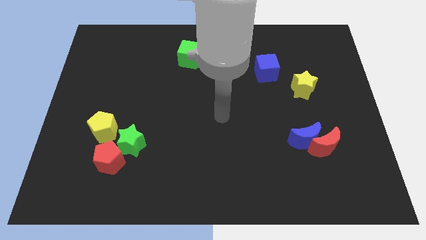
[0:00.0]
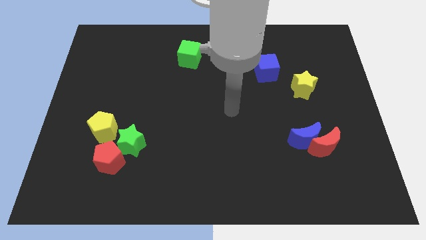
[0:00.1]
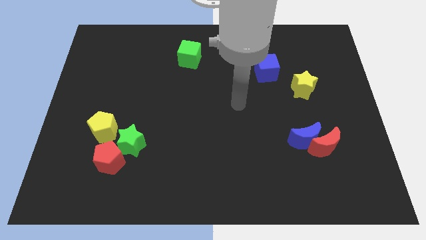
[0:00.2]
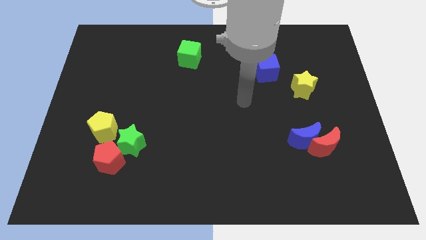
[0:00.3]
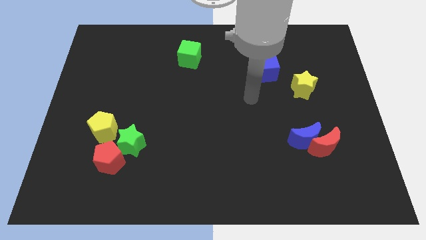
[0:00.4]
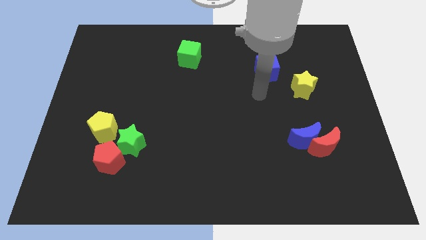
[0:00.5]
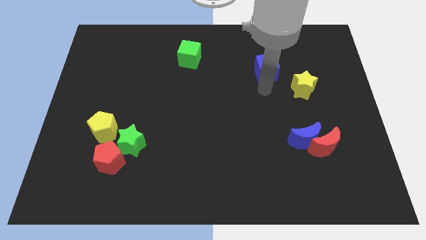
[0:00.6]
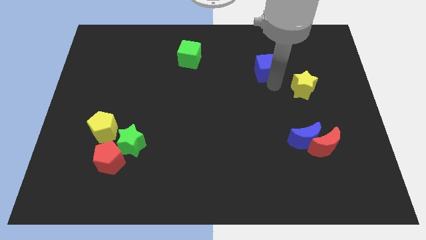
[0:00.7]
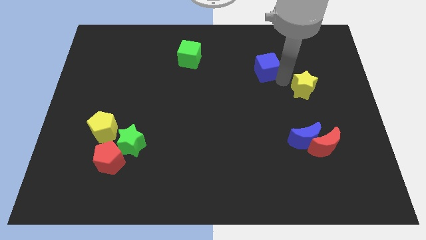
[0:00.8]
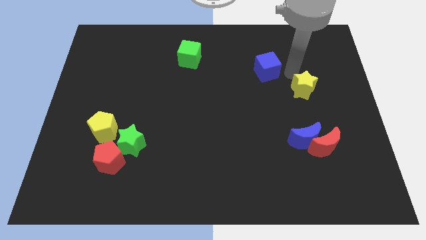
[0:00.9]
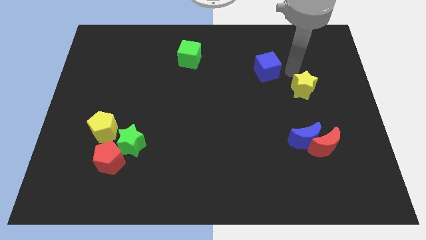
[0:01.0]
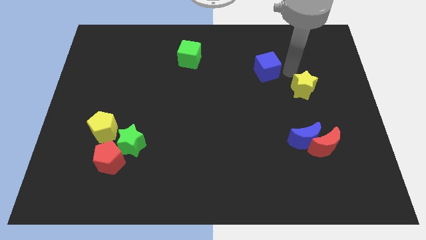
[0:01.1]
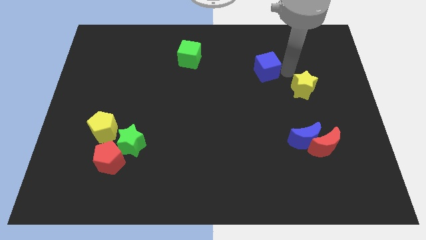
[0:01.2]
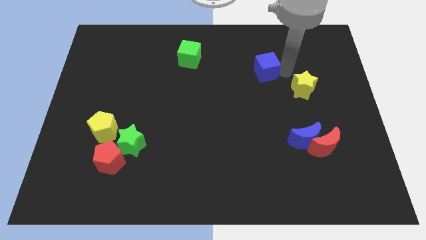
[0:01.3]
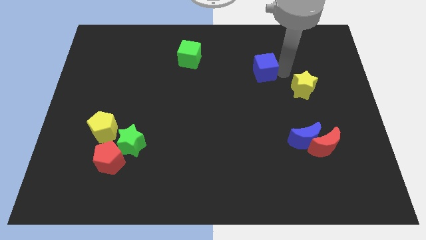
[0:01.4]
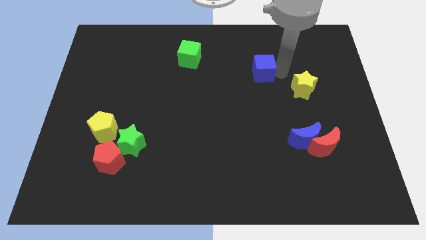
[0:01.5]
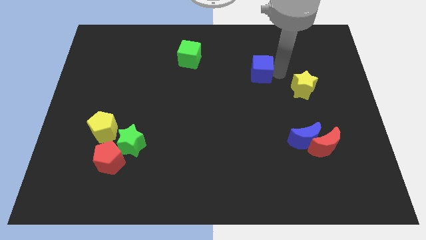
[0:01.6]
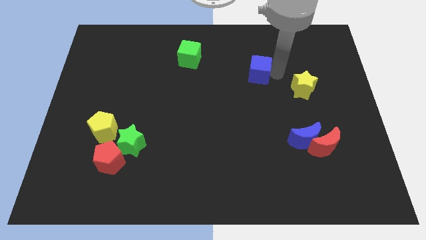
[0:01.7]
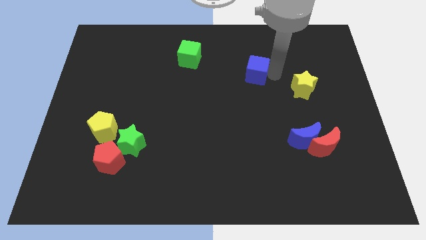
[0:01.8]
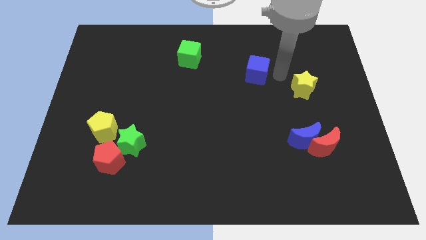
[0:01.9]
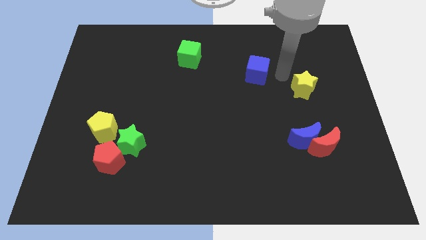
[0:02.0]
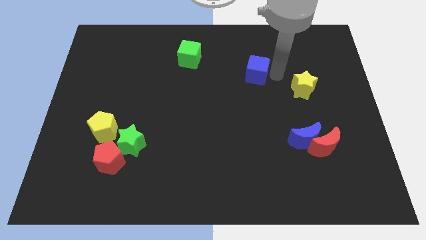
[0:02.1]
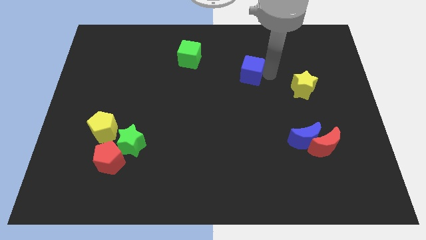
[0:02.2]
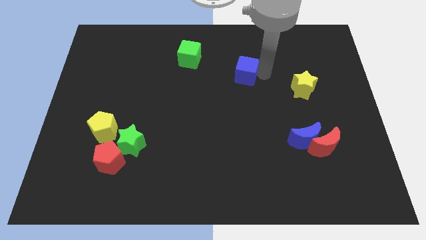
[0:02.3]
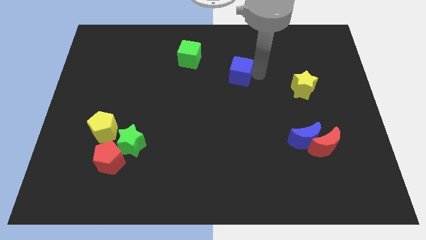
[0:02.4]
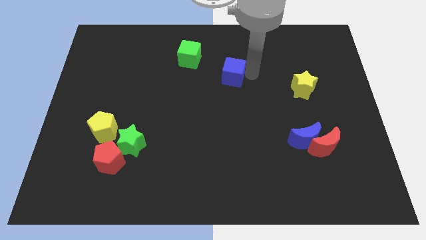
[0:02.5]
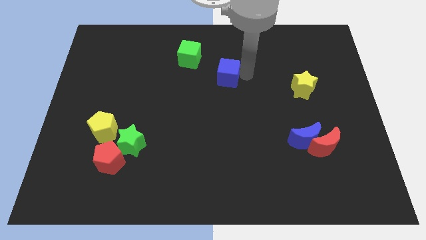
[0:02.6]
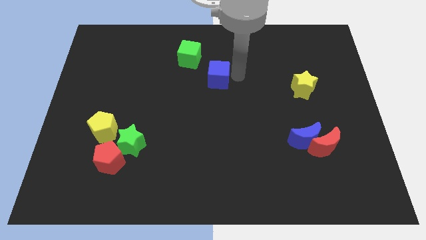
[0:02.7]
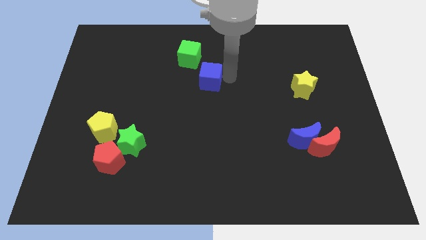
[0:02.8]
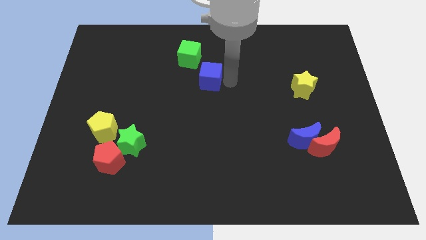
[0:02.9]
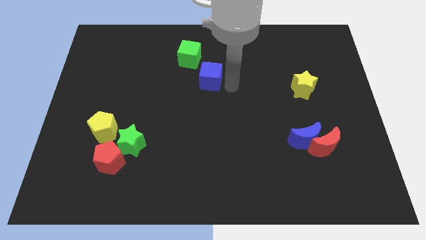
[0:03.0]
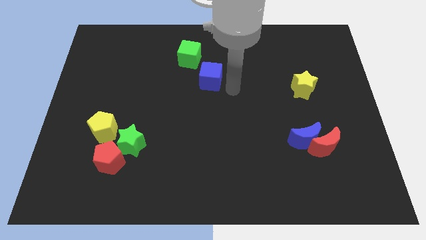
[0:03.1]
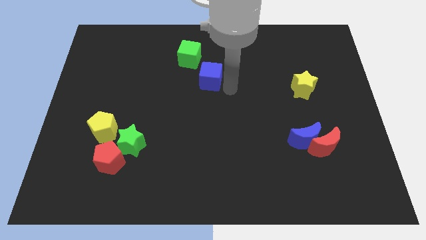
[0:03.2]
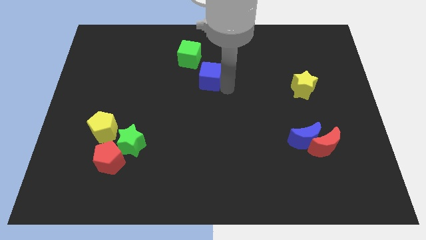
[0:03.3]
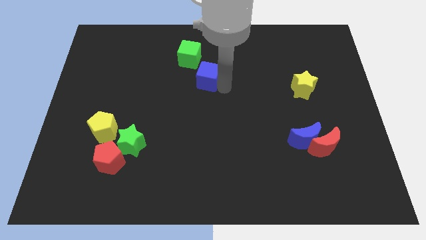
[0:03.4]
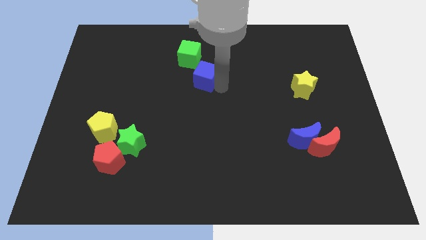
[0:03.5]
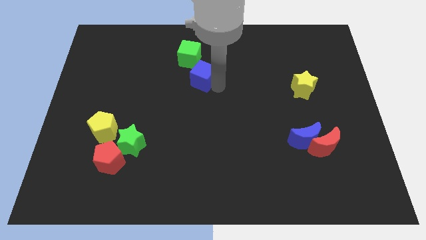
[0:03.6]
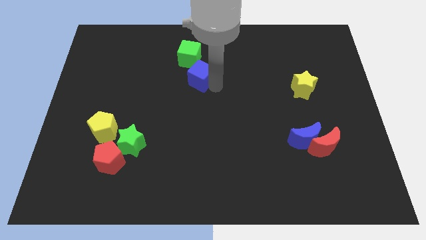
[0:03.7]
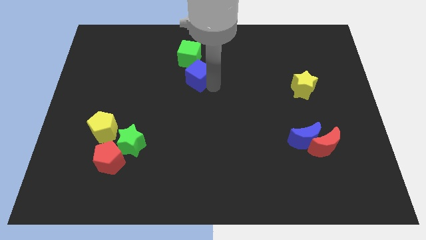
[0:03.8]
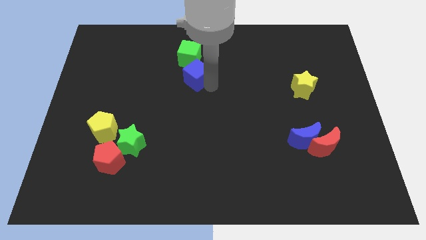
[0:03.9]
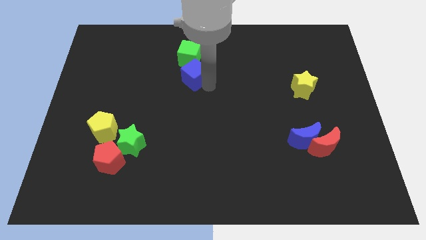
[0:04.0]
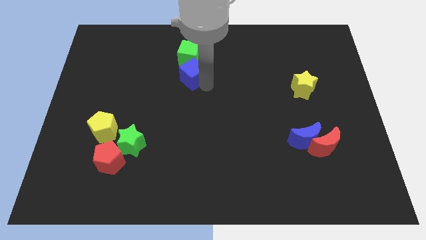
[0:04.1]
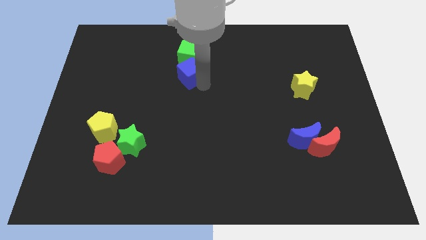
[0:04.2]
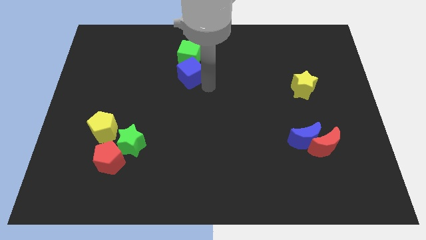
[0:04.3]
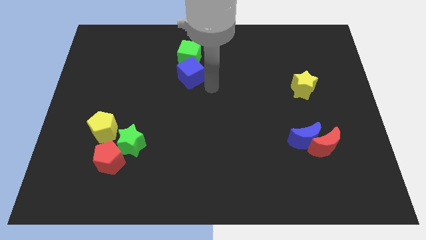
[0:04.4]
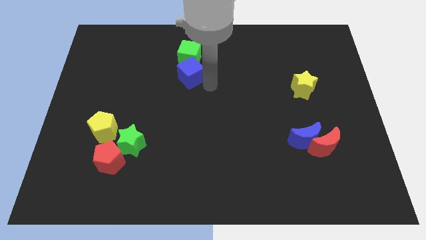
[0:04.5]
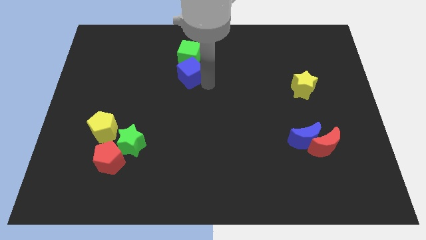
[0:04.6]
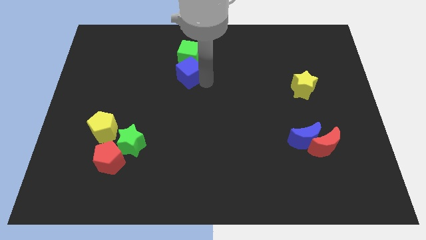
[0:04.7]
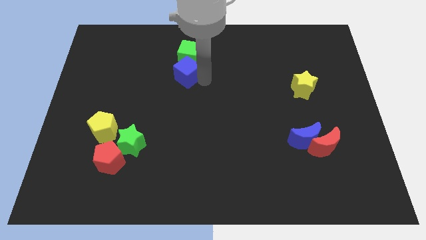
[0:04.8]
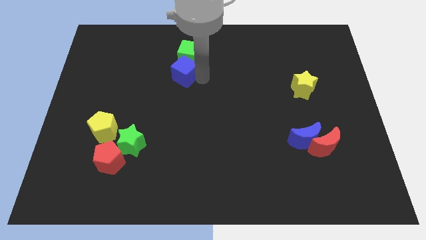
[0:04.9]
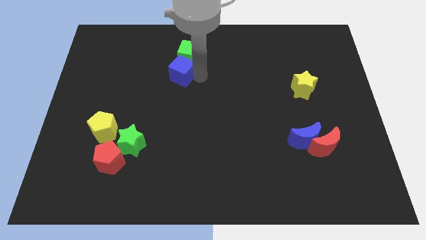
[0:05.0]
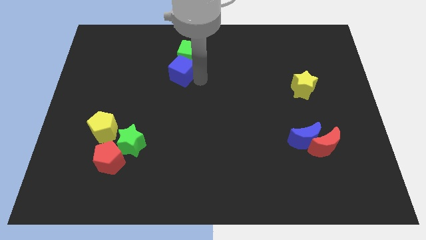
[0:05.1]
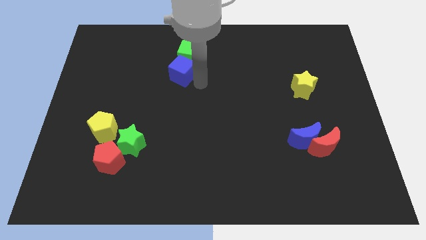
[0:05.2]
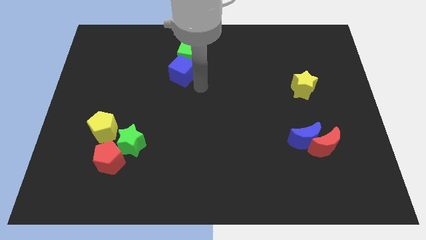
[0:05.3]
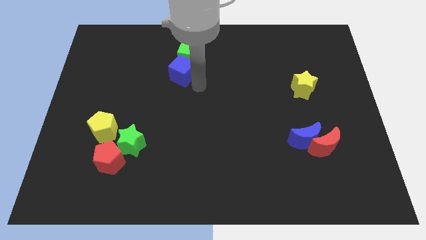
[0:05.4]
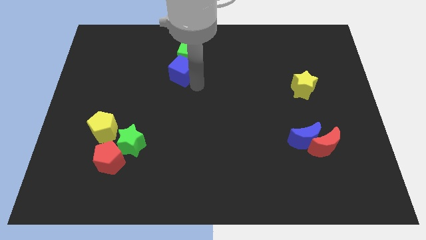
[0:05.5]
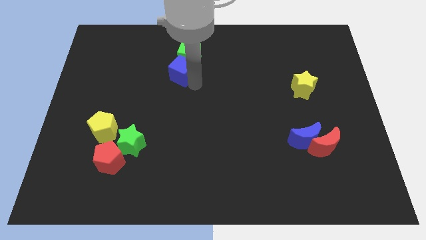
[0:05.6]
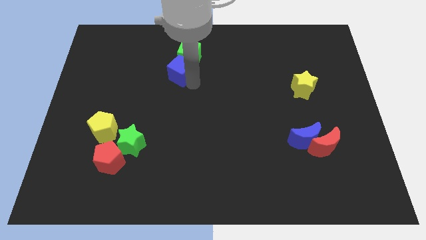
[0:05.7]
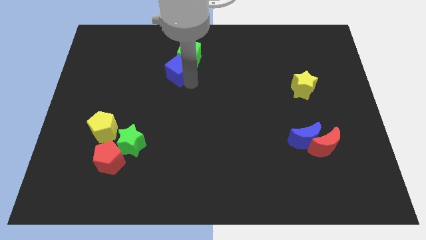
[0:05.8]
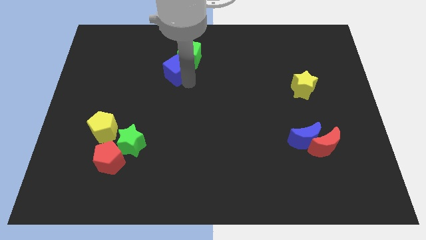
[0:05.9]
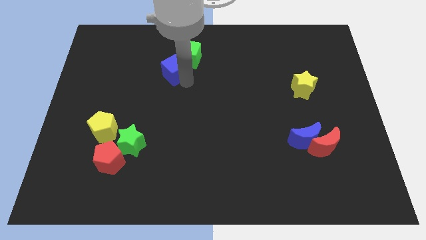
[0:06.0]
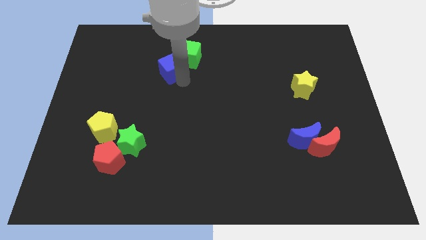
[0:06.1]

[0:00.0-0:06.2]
push the blue cube just left of the green cube
